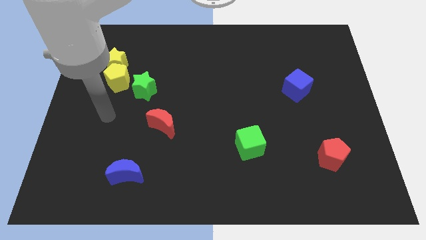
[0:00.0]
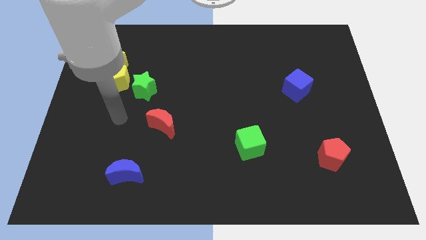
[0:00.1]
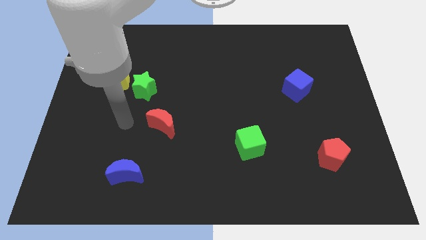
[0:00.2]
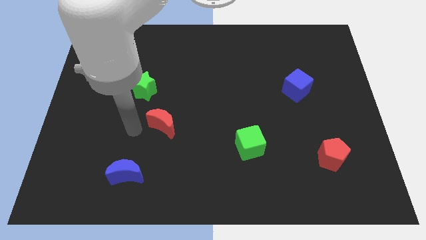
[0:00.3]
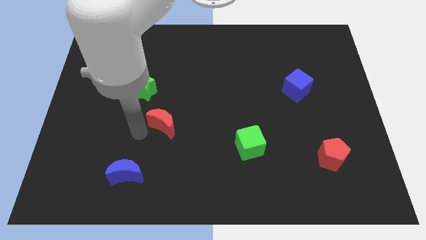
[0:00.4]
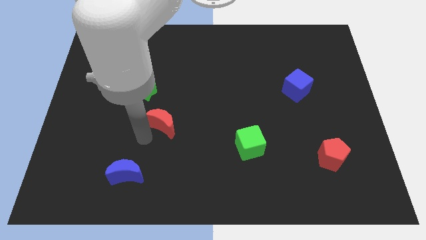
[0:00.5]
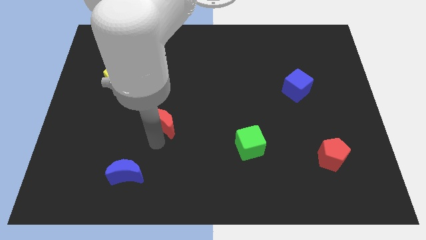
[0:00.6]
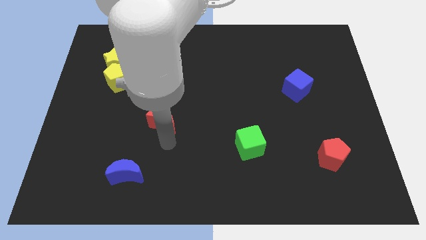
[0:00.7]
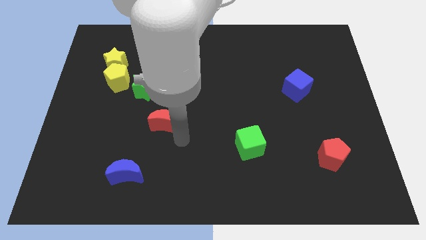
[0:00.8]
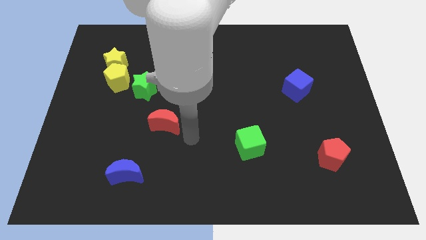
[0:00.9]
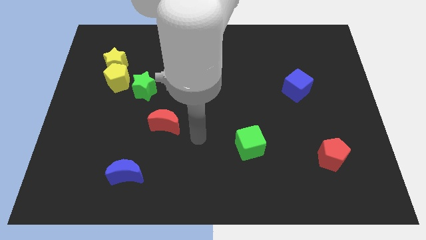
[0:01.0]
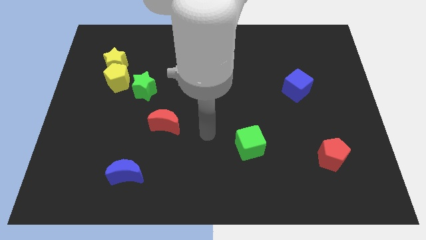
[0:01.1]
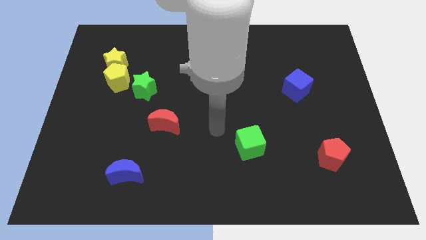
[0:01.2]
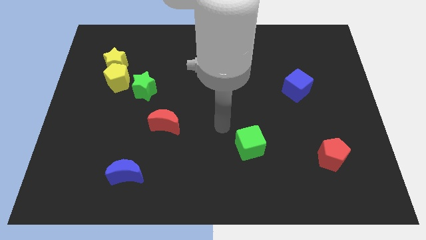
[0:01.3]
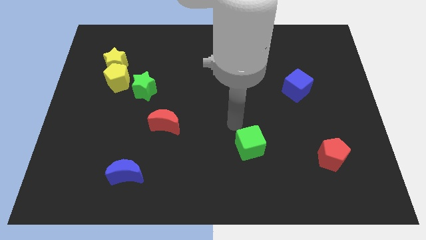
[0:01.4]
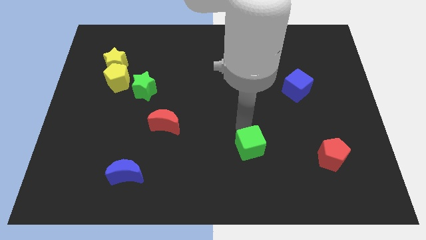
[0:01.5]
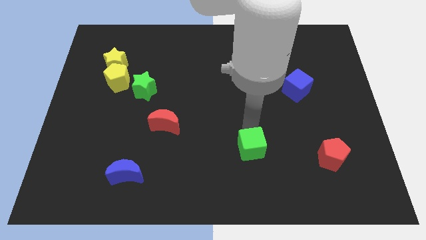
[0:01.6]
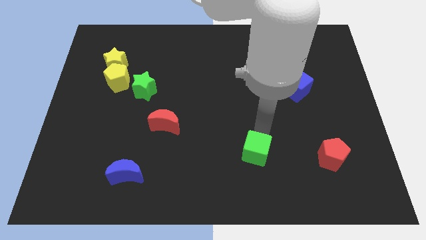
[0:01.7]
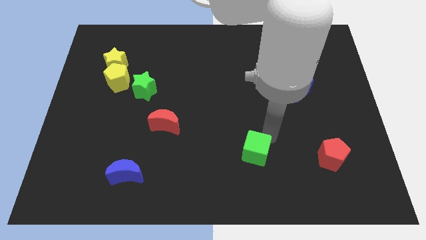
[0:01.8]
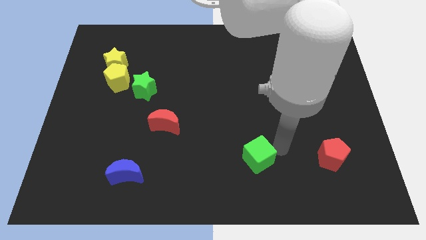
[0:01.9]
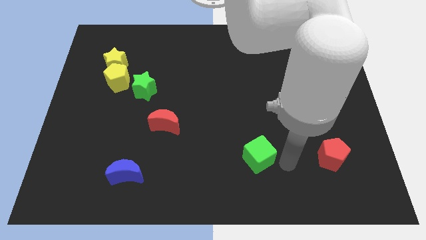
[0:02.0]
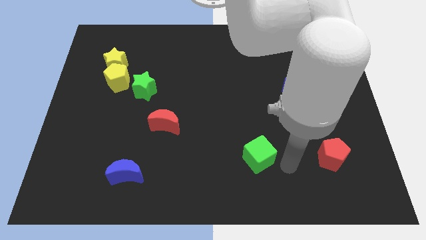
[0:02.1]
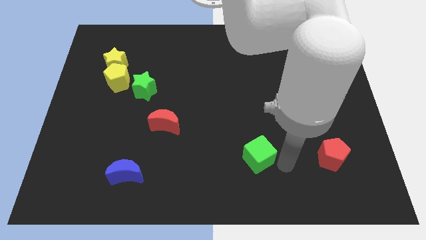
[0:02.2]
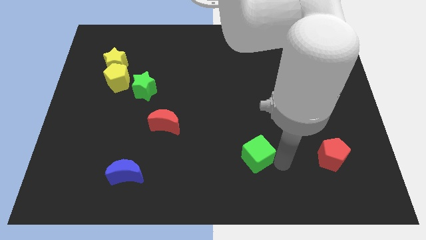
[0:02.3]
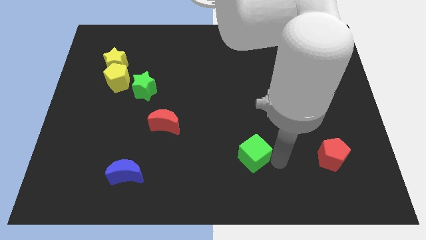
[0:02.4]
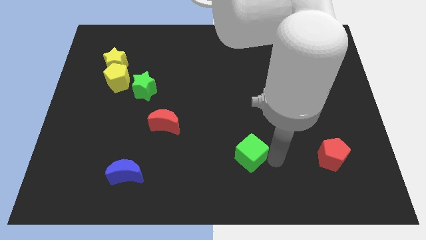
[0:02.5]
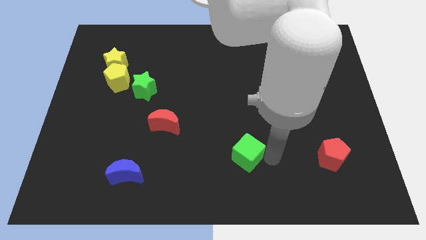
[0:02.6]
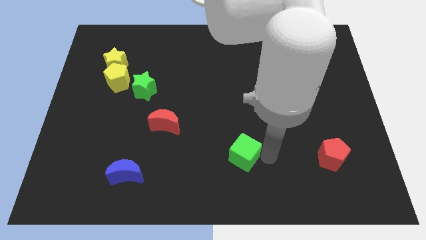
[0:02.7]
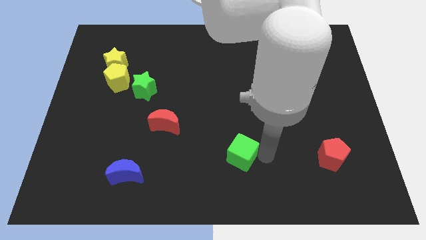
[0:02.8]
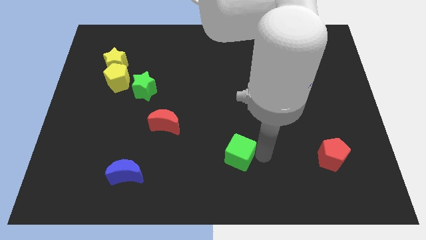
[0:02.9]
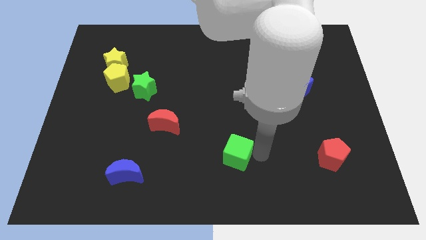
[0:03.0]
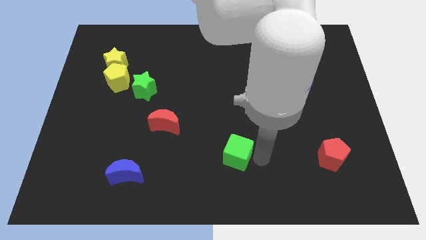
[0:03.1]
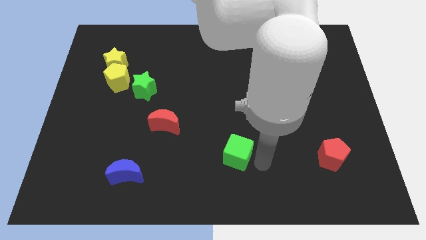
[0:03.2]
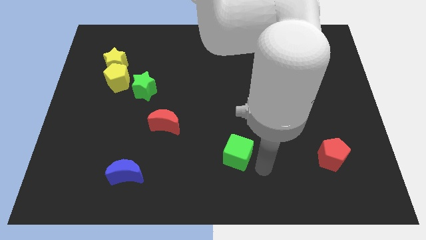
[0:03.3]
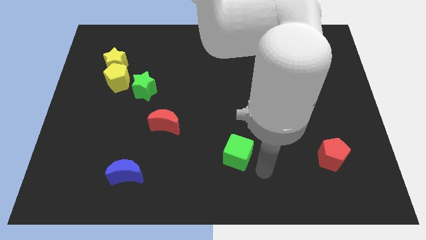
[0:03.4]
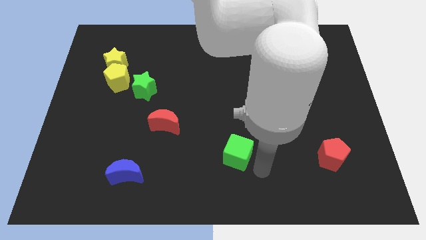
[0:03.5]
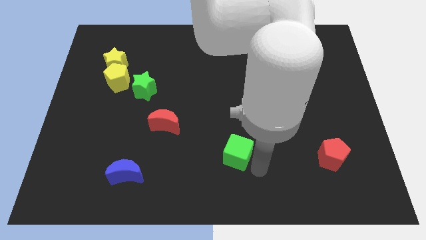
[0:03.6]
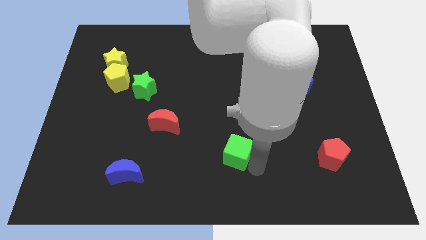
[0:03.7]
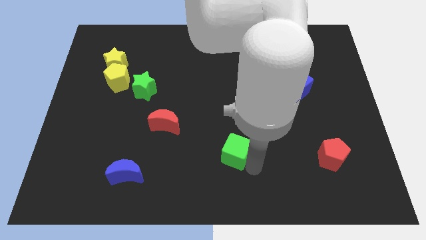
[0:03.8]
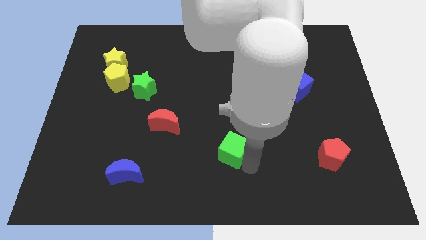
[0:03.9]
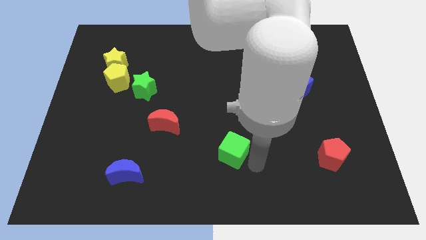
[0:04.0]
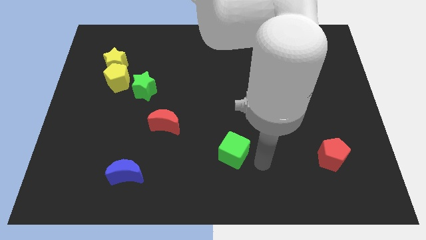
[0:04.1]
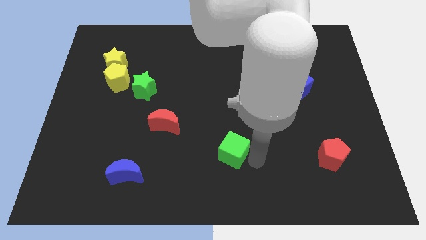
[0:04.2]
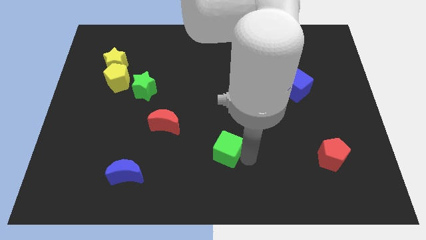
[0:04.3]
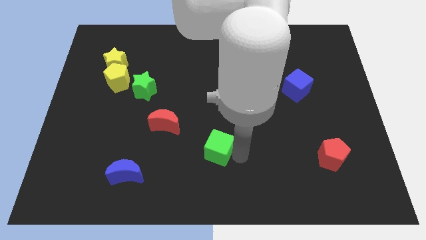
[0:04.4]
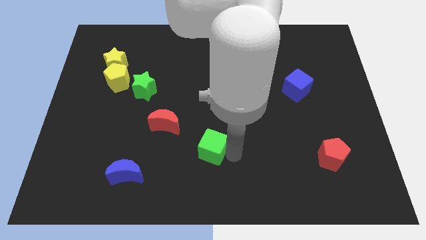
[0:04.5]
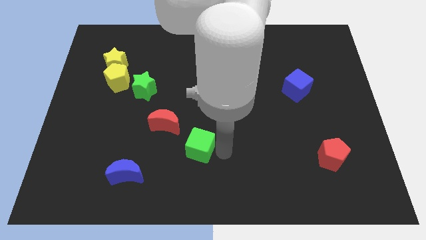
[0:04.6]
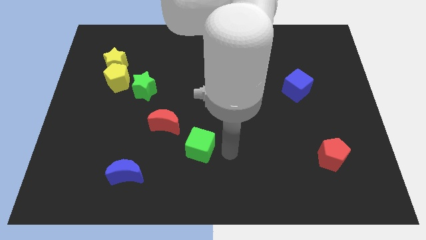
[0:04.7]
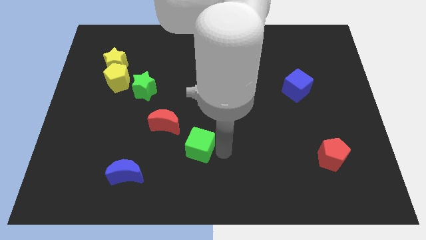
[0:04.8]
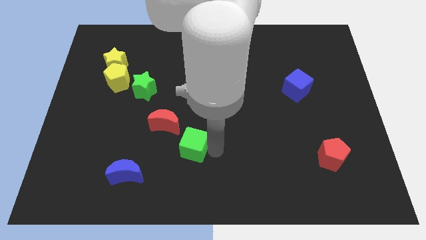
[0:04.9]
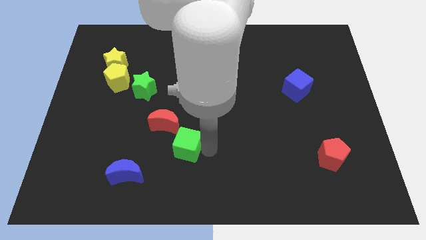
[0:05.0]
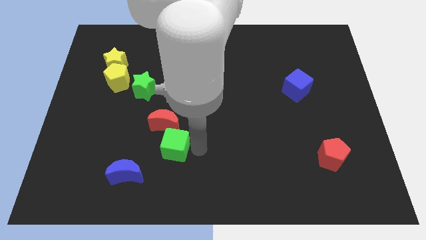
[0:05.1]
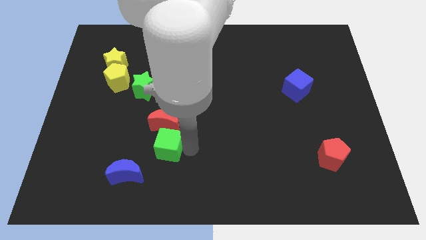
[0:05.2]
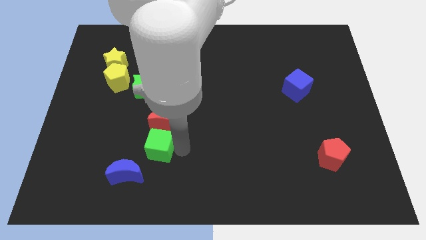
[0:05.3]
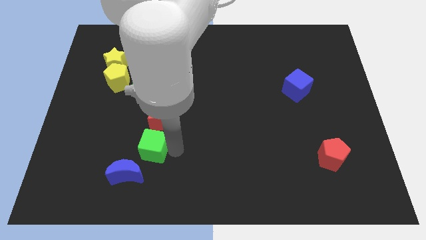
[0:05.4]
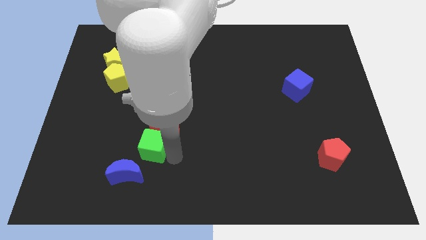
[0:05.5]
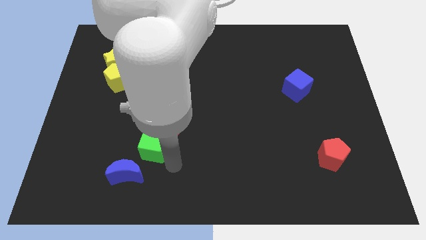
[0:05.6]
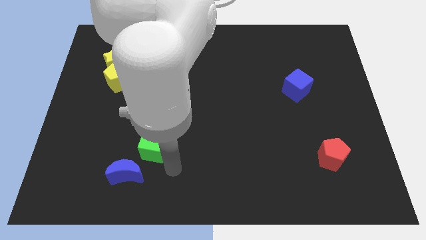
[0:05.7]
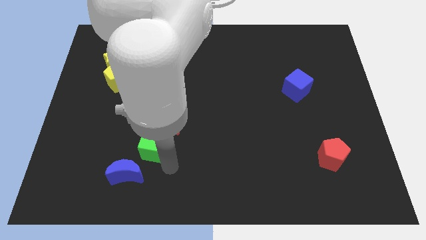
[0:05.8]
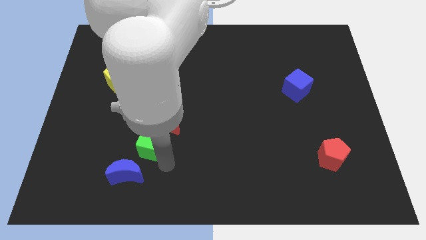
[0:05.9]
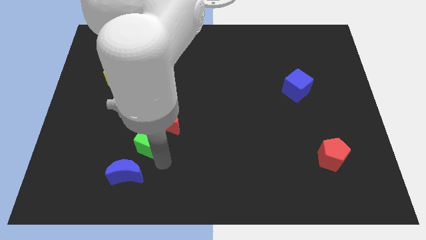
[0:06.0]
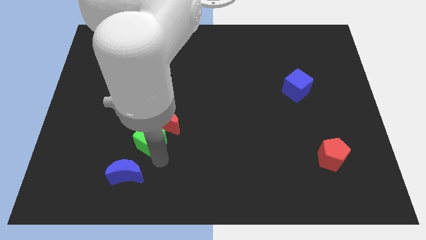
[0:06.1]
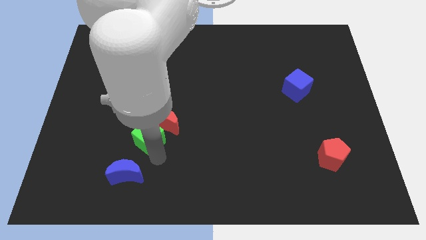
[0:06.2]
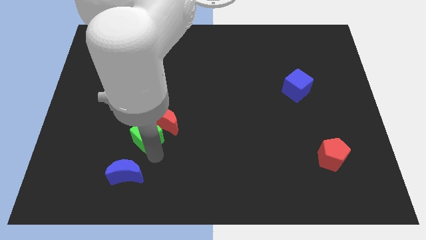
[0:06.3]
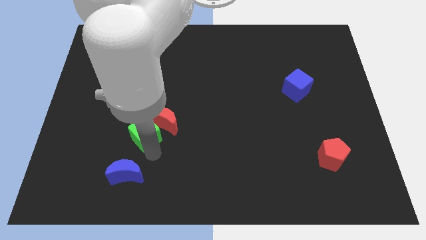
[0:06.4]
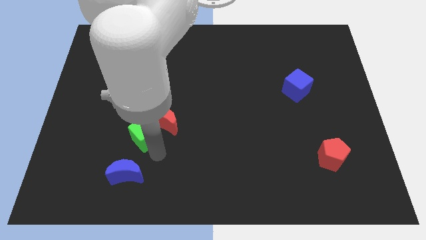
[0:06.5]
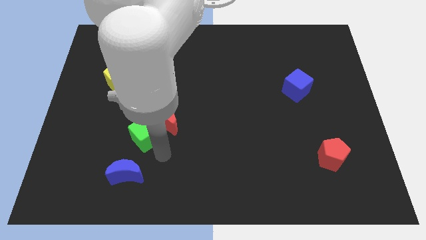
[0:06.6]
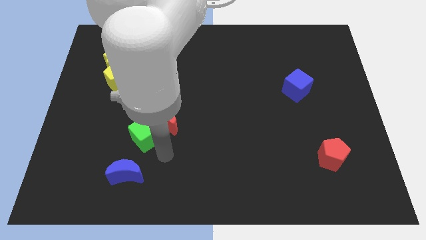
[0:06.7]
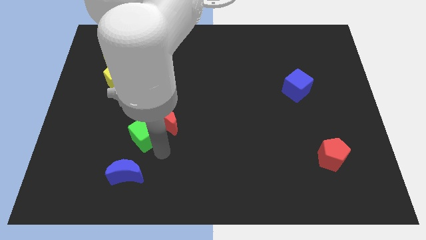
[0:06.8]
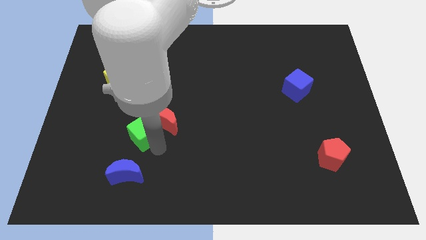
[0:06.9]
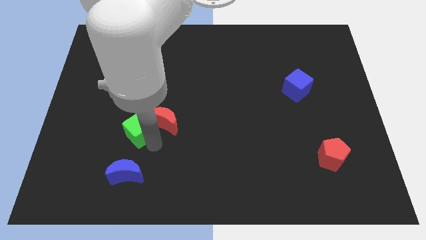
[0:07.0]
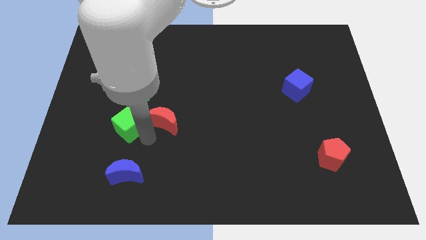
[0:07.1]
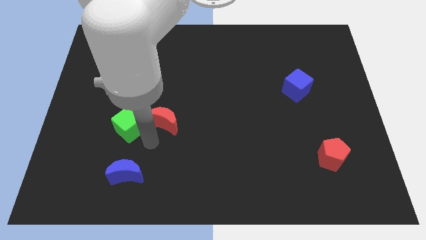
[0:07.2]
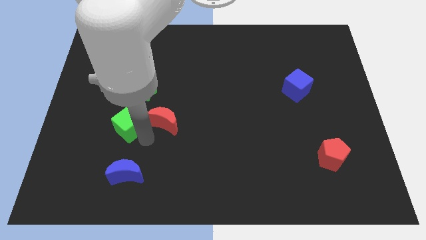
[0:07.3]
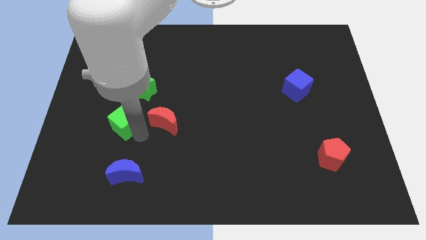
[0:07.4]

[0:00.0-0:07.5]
put the green cube to the bottom of the yellow pentagon
